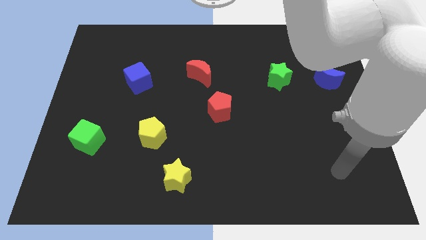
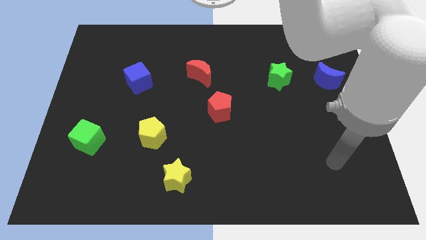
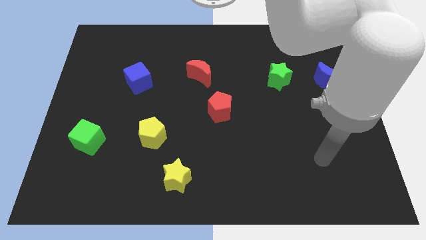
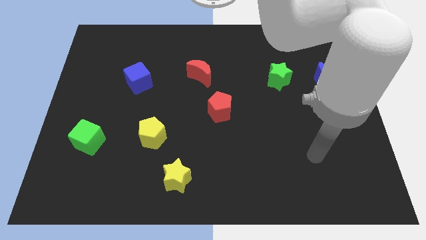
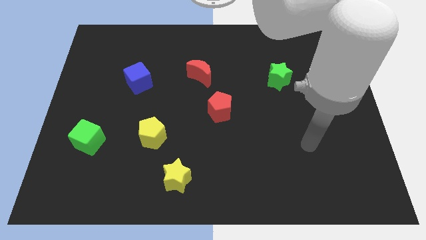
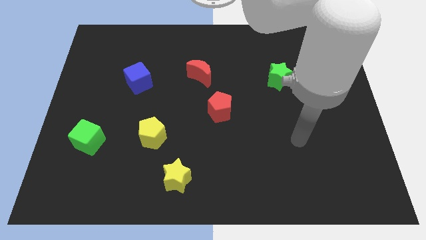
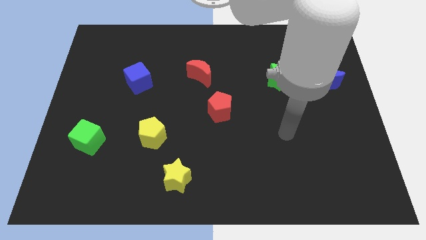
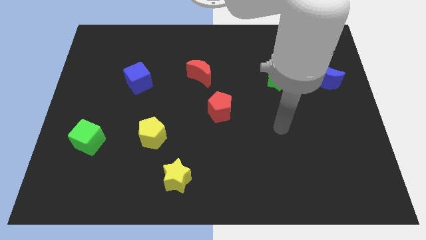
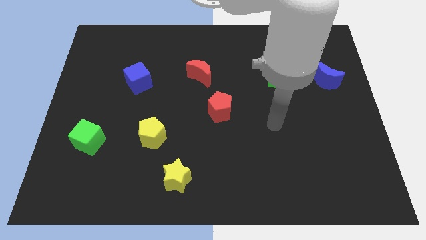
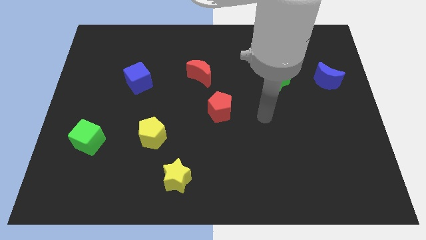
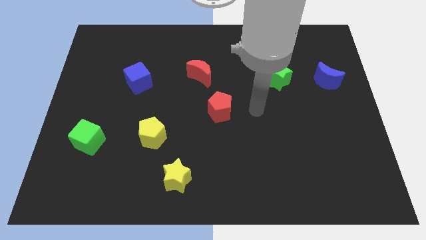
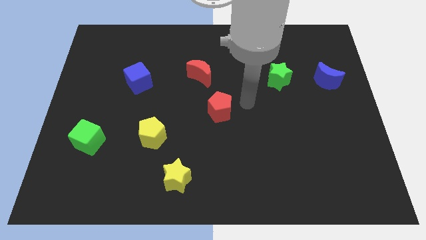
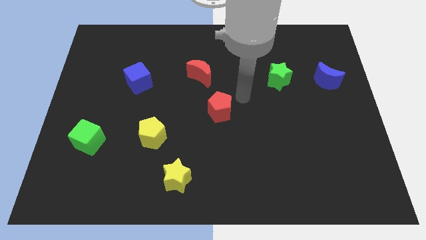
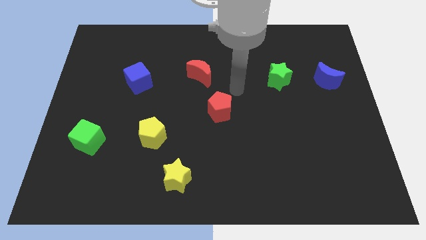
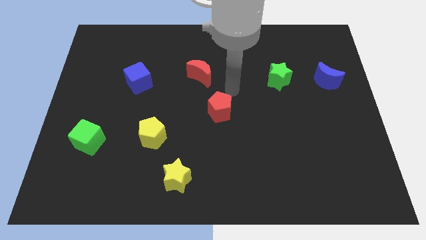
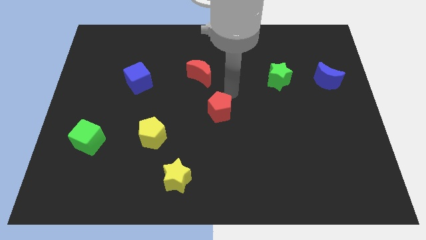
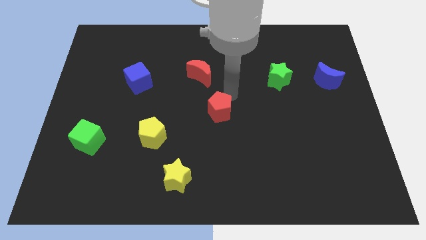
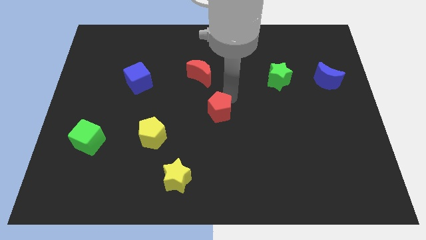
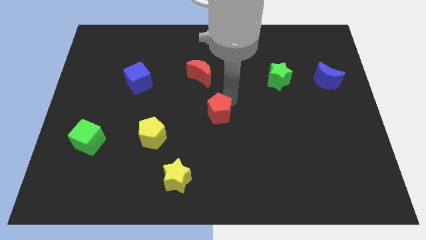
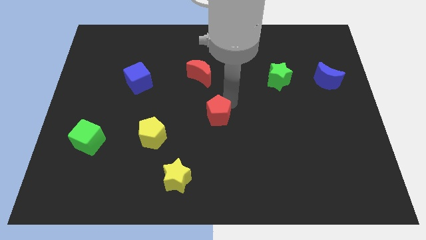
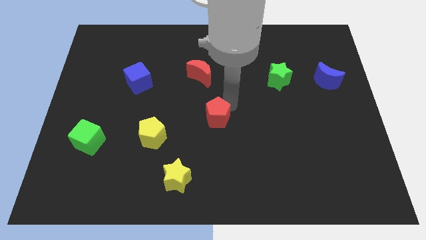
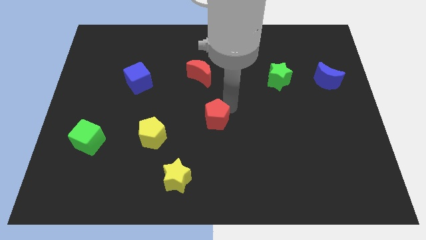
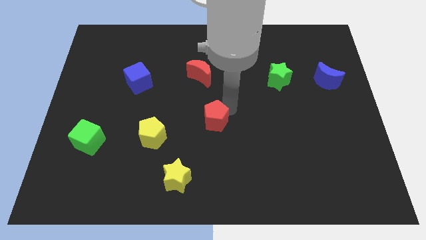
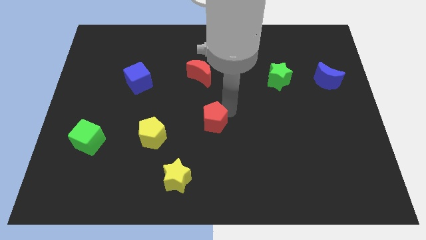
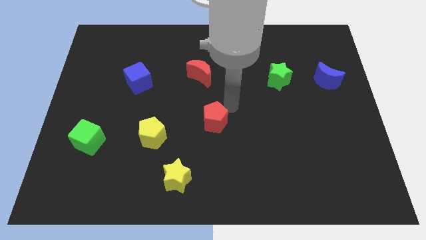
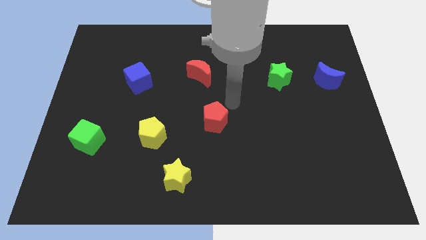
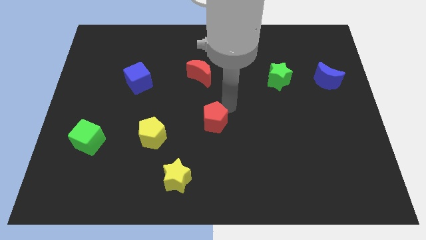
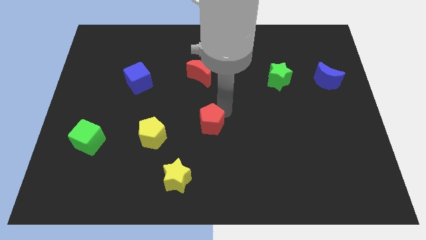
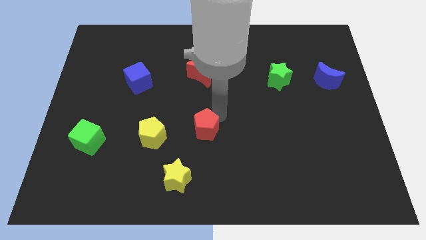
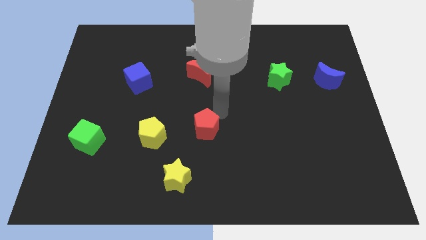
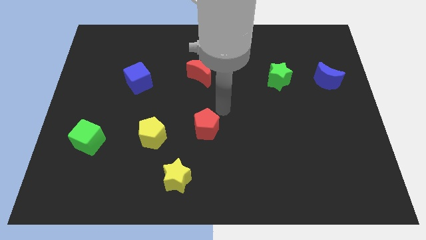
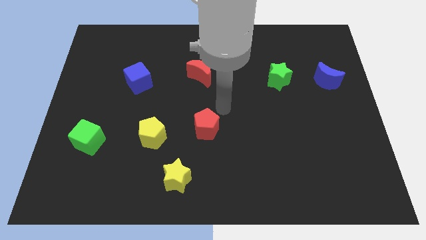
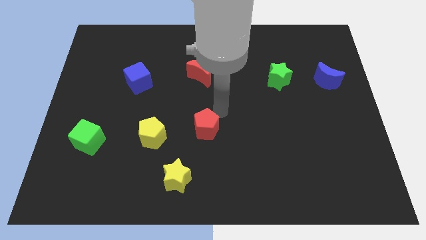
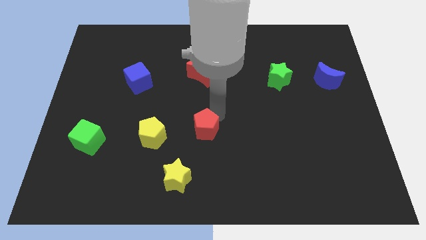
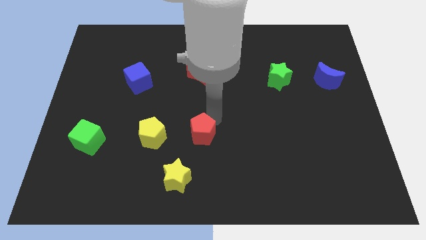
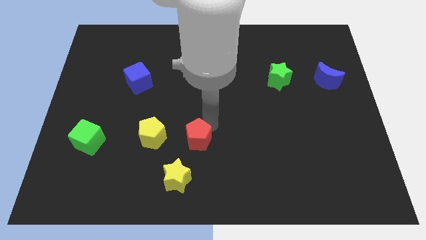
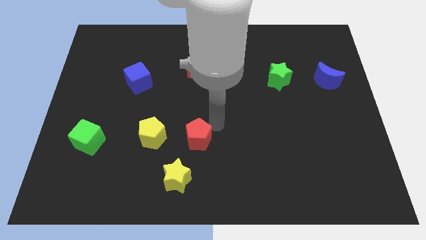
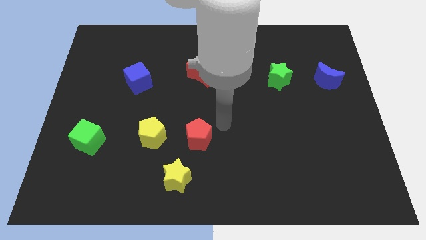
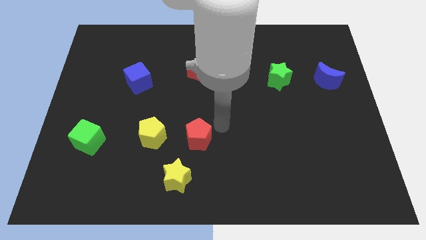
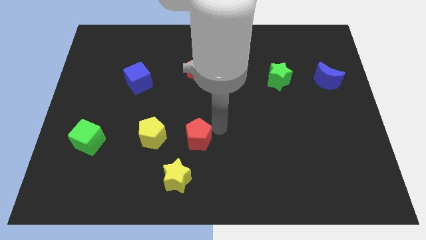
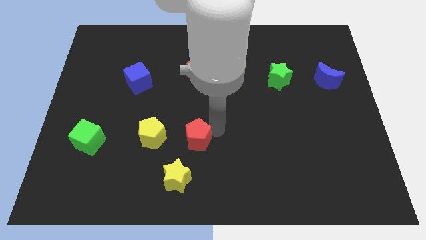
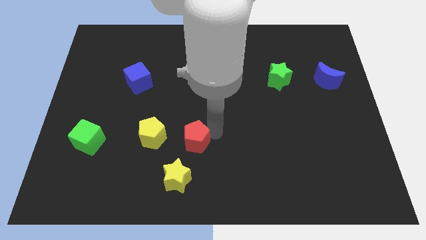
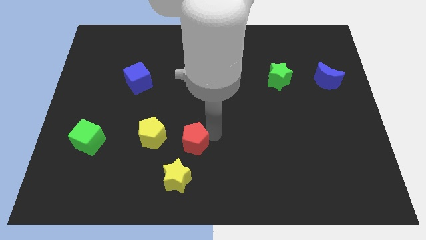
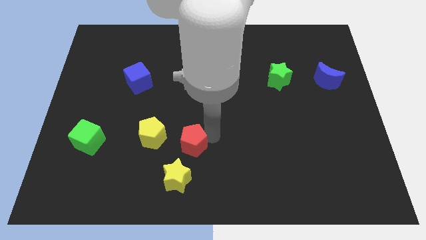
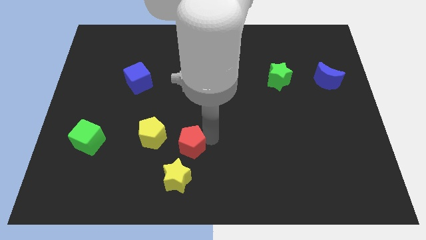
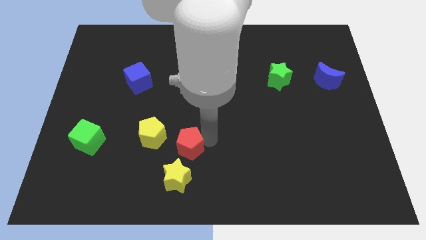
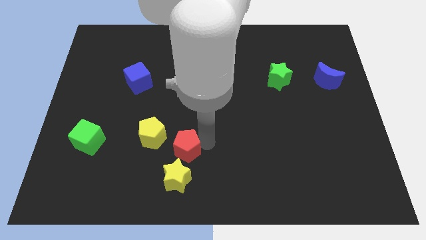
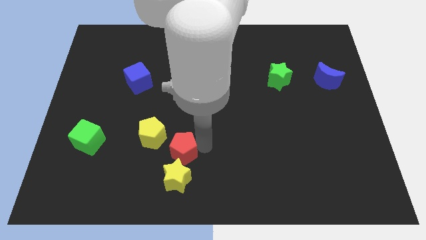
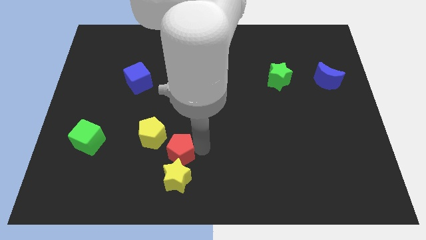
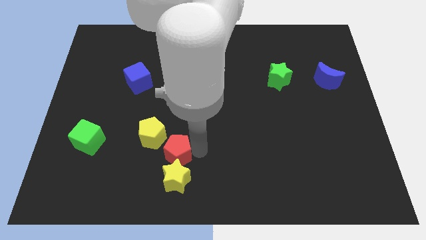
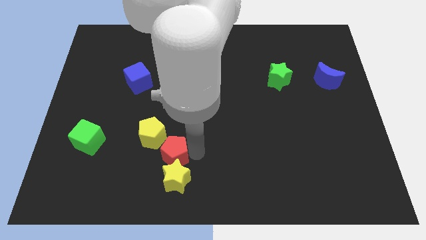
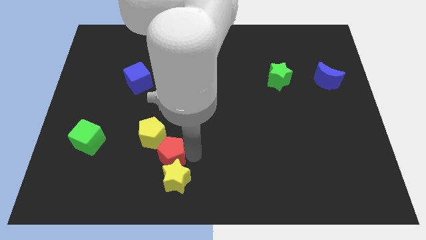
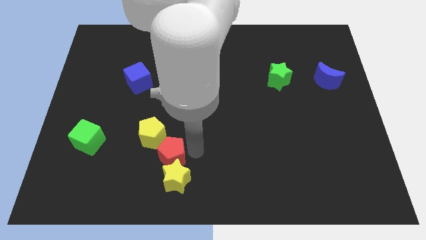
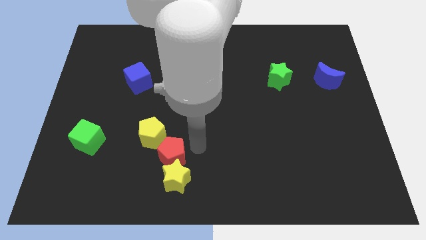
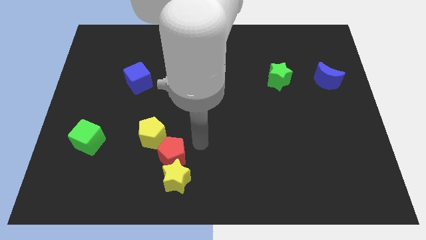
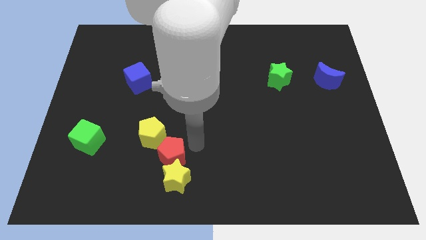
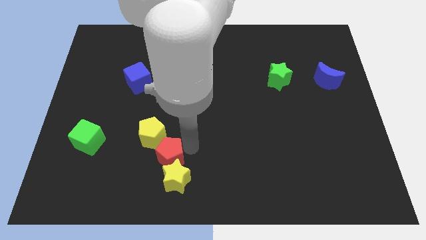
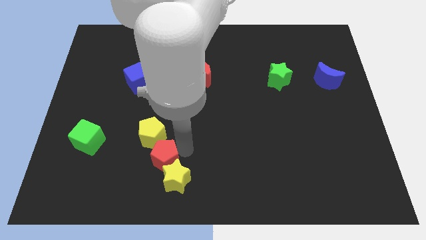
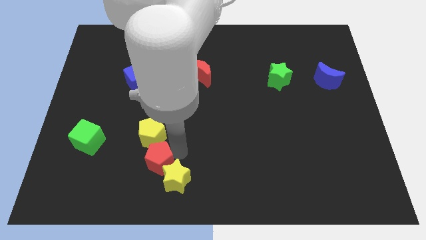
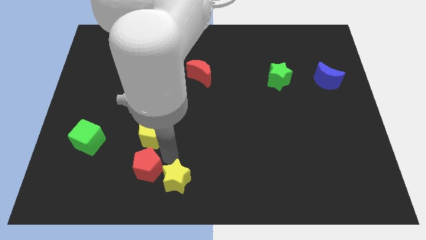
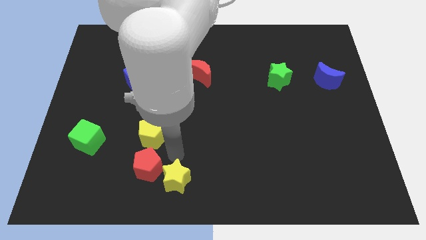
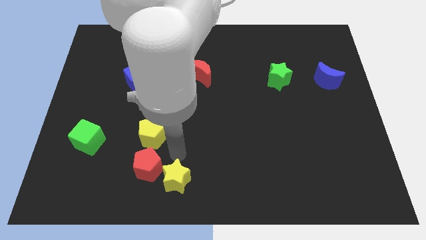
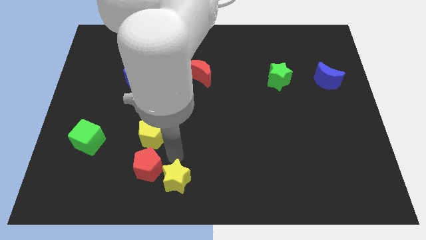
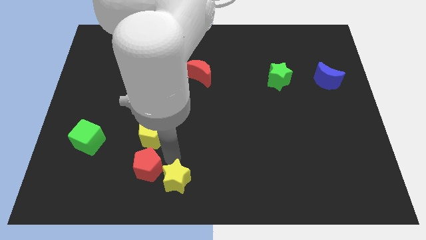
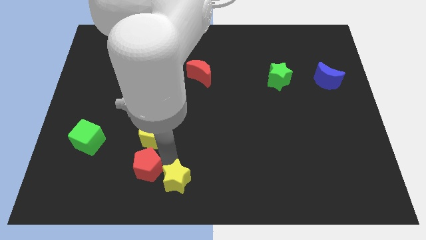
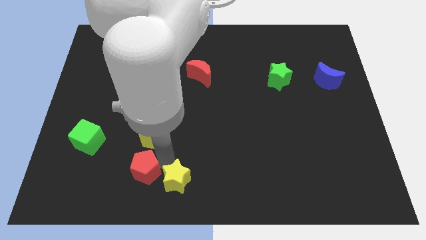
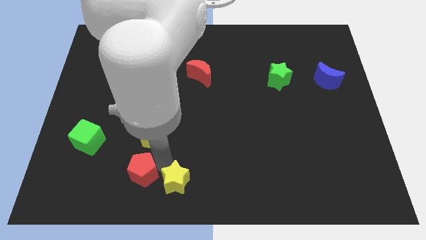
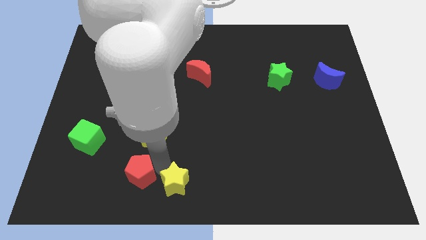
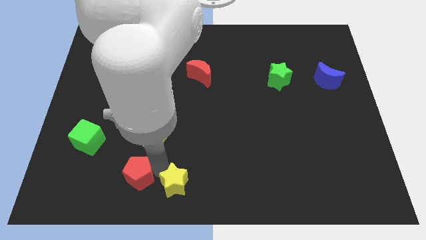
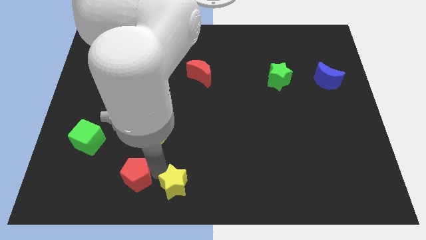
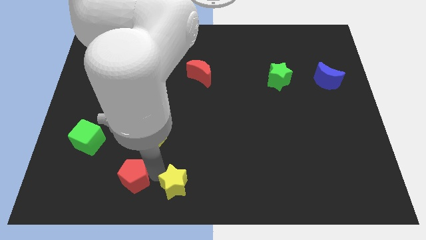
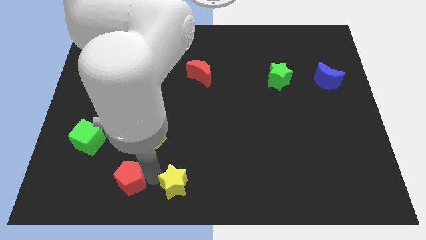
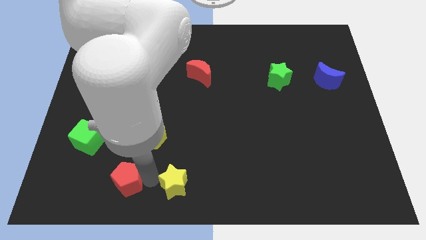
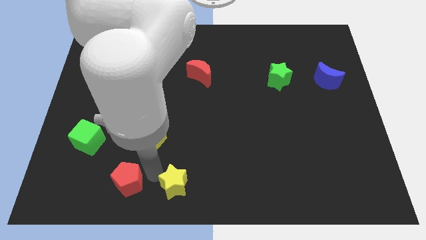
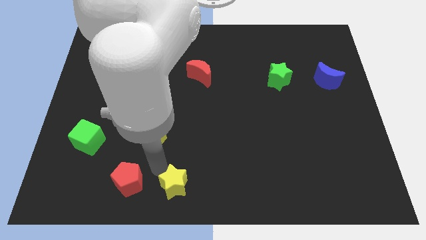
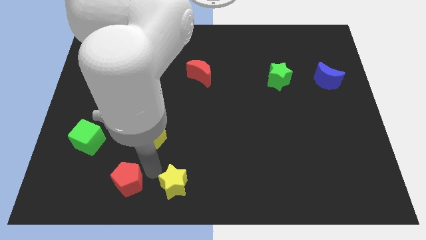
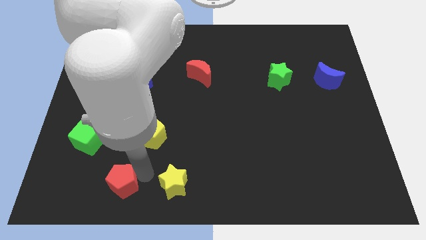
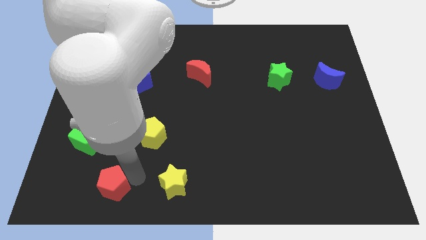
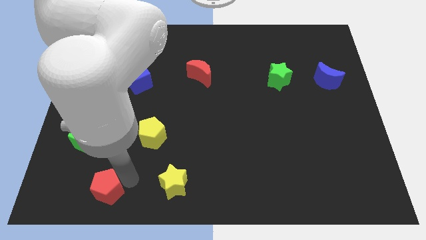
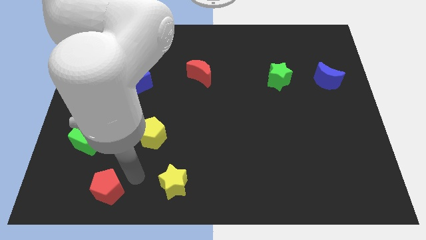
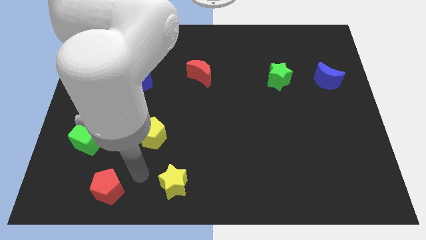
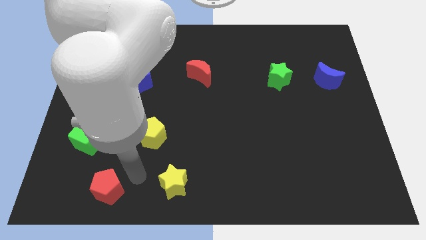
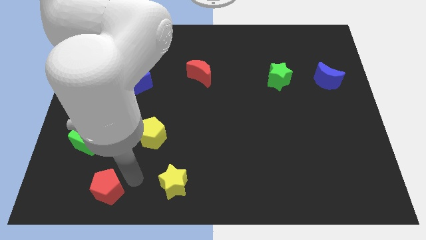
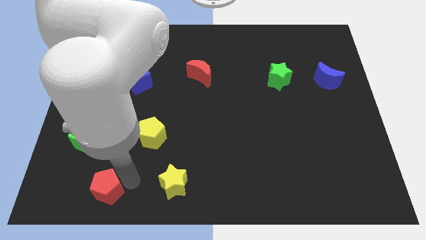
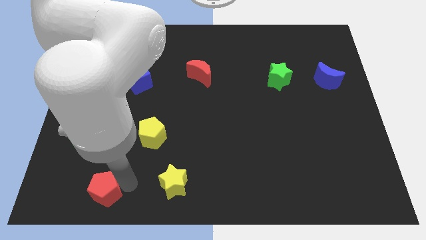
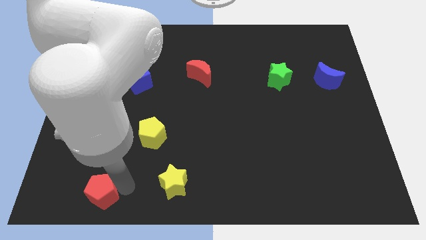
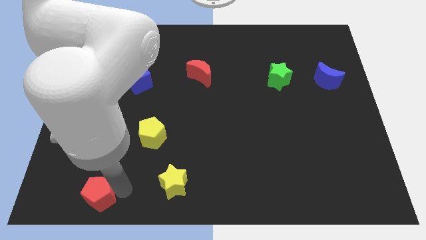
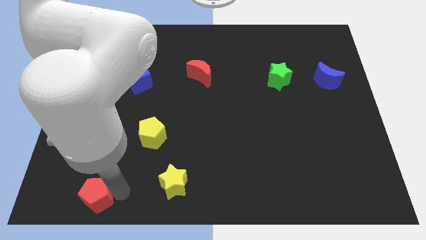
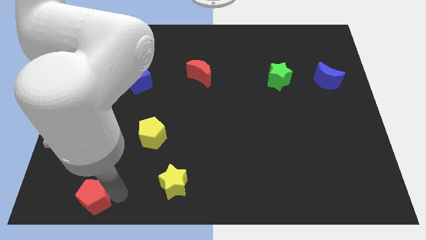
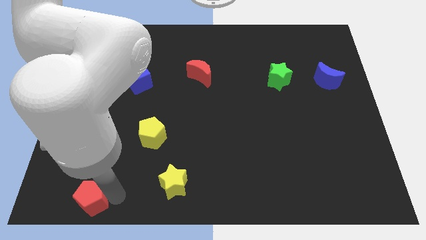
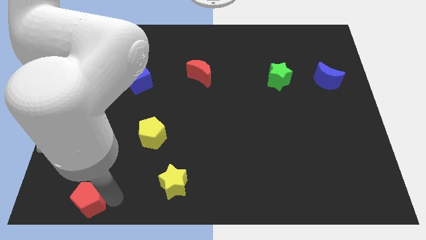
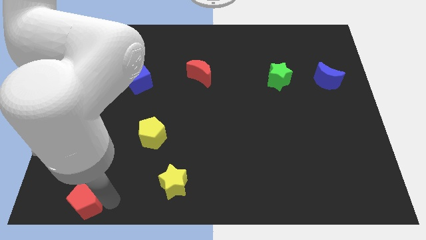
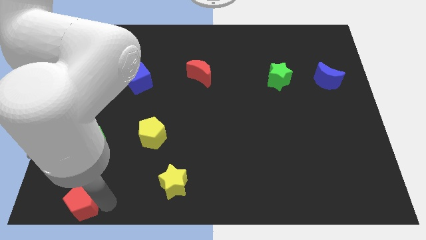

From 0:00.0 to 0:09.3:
push the red pentagon to the bottom left corner
